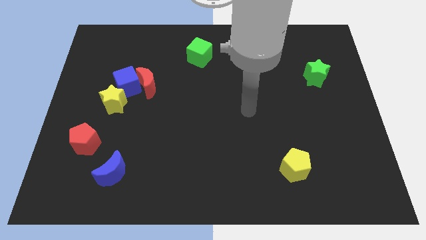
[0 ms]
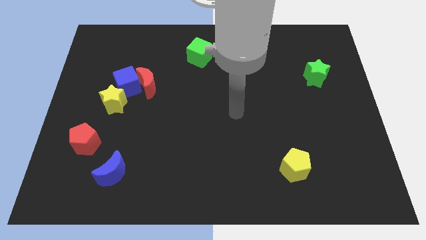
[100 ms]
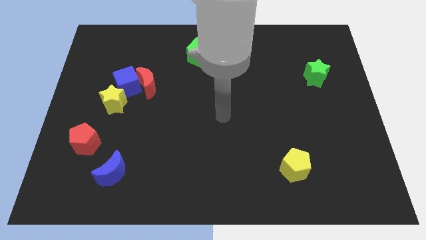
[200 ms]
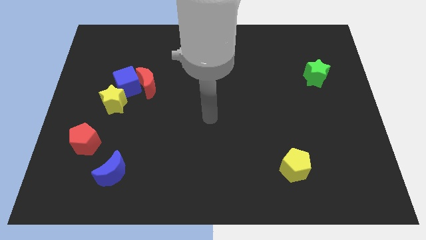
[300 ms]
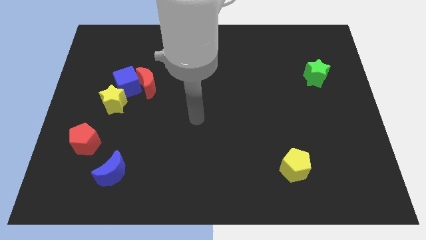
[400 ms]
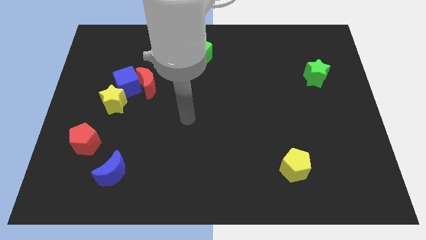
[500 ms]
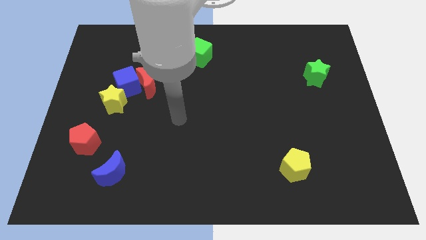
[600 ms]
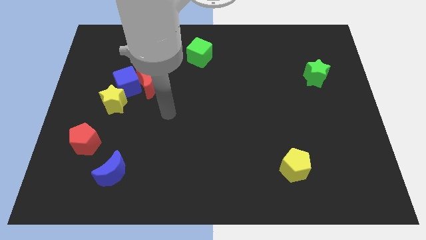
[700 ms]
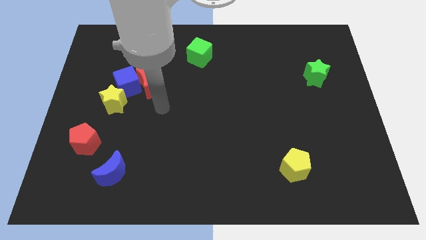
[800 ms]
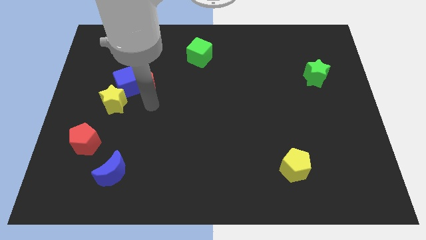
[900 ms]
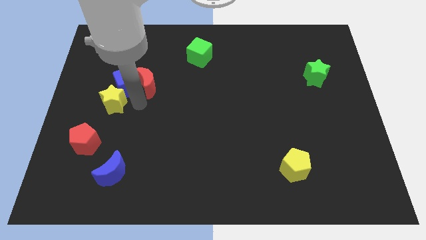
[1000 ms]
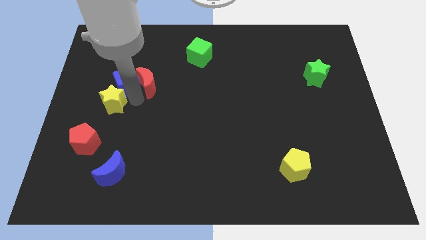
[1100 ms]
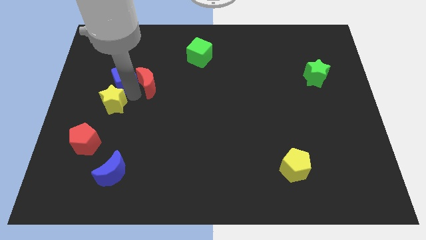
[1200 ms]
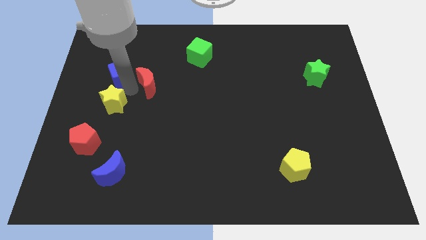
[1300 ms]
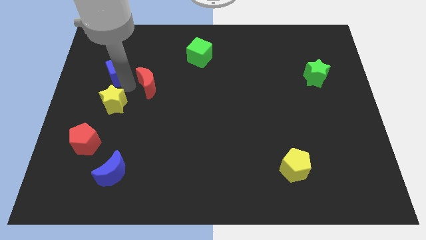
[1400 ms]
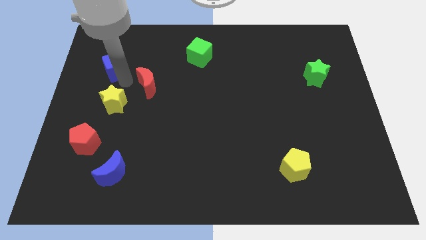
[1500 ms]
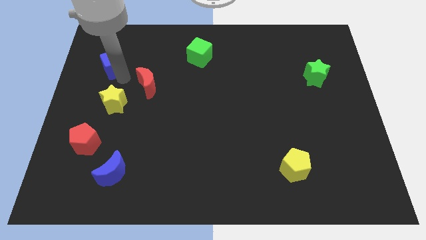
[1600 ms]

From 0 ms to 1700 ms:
move the blue cube away from the red moon and yellow star

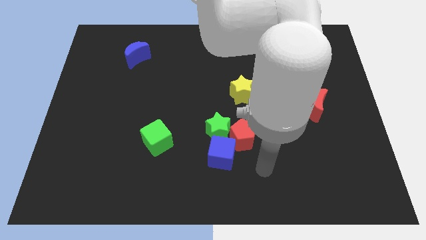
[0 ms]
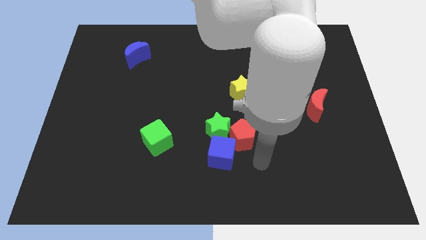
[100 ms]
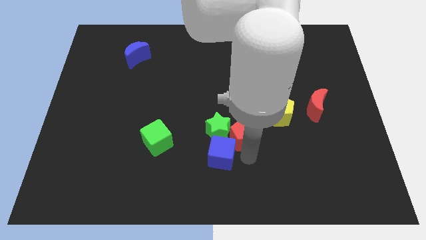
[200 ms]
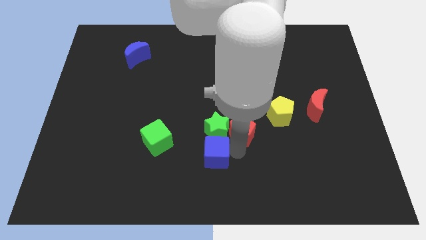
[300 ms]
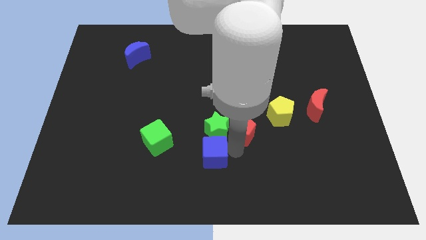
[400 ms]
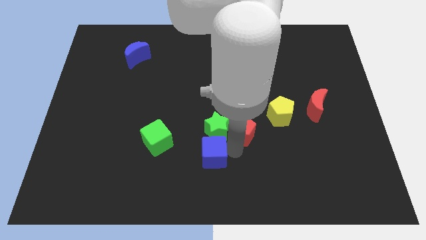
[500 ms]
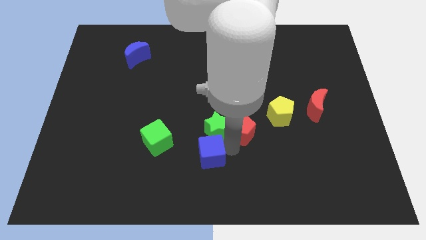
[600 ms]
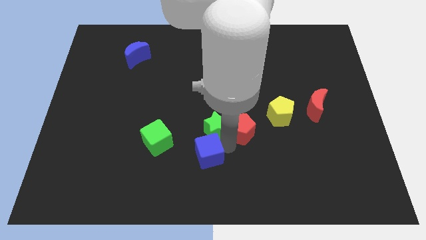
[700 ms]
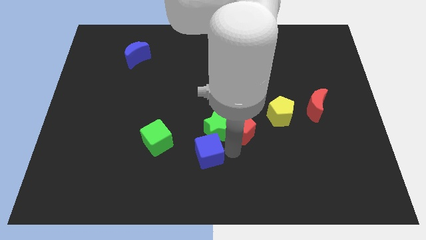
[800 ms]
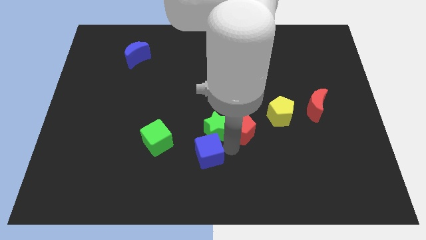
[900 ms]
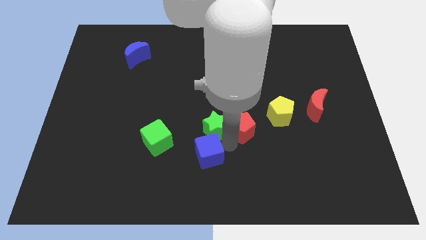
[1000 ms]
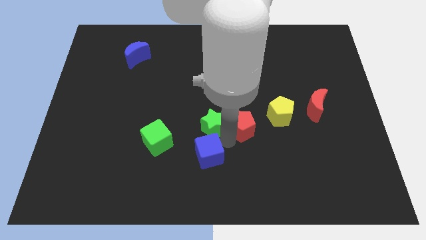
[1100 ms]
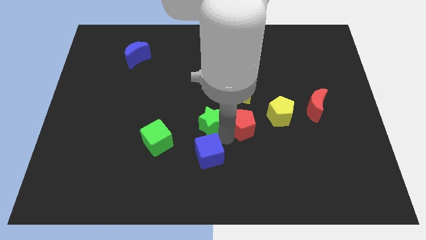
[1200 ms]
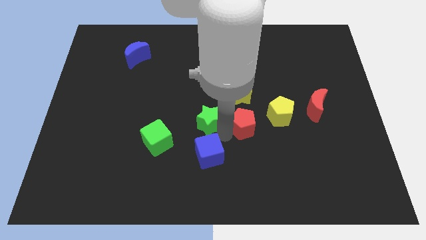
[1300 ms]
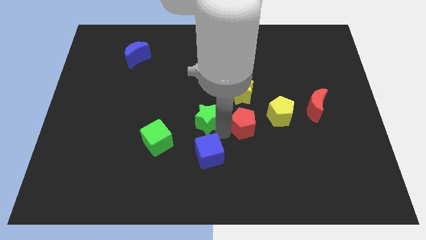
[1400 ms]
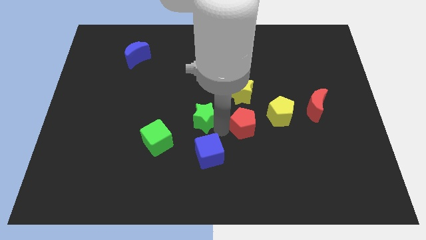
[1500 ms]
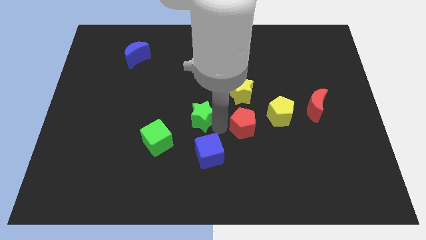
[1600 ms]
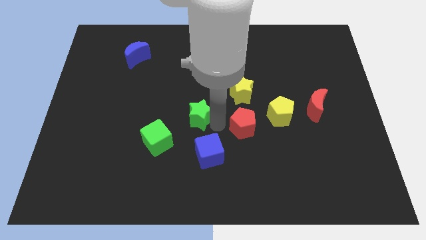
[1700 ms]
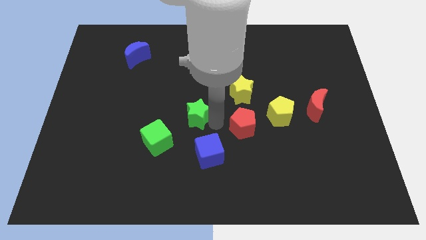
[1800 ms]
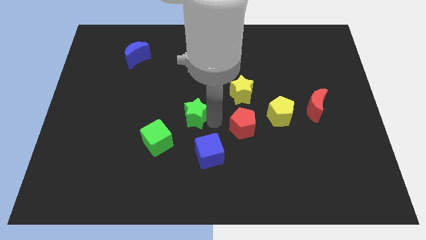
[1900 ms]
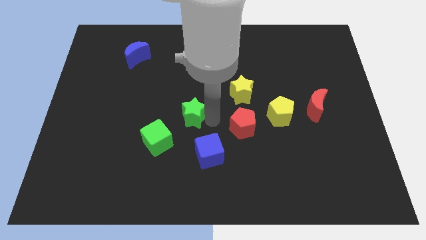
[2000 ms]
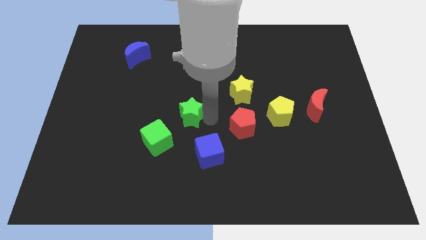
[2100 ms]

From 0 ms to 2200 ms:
separate the green star from the red pentagon and blue cube

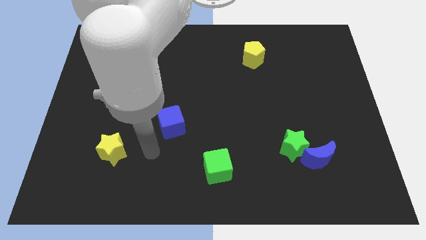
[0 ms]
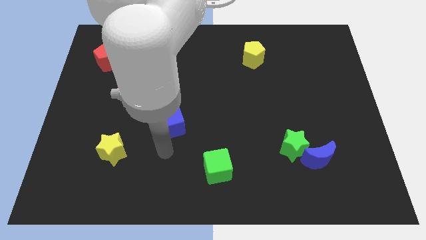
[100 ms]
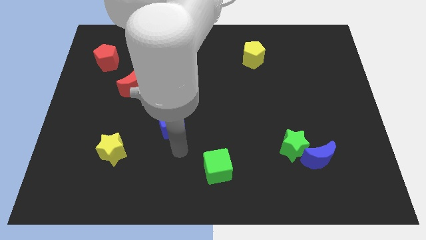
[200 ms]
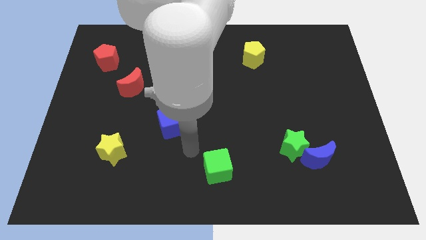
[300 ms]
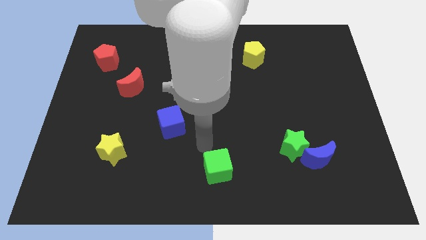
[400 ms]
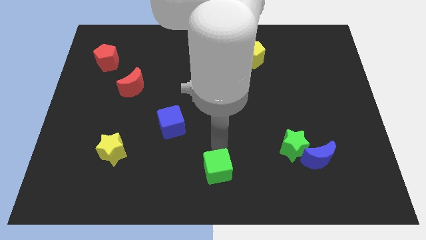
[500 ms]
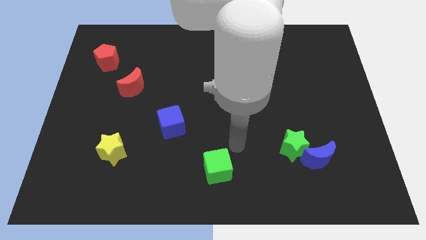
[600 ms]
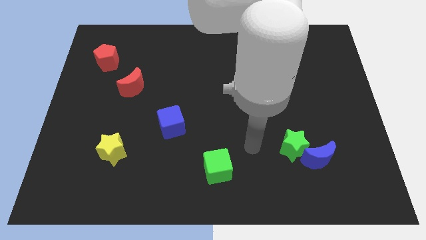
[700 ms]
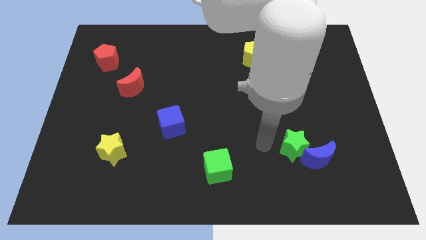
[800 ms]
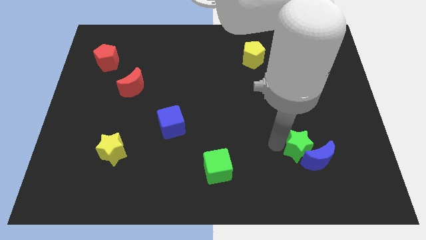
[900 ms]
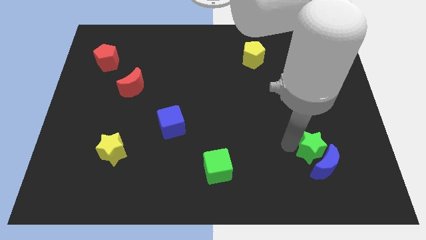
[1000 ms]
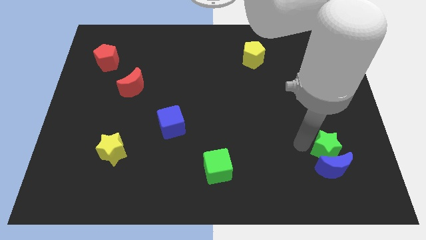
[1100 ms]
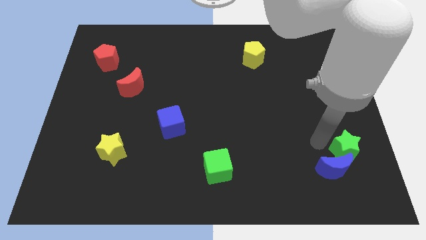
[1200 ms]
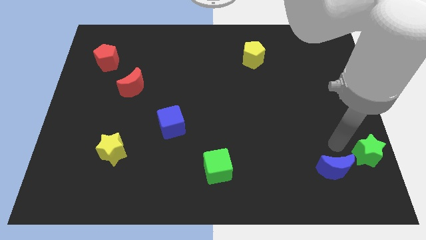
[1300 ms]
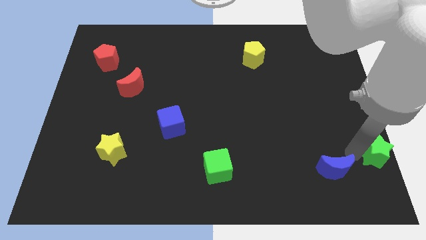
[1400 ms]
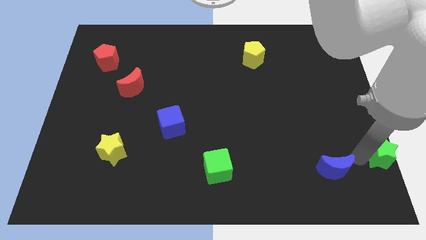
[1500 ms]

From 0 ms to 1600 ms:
move the blue moon away from the green star

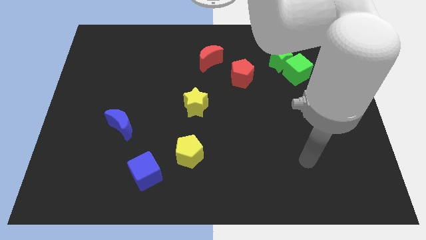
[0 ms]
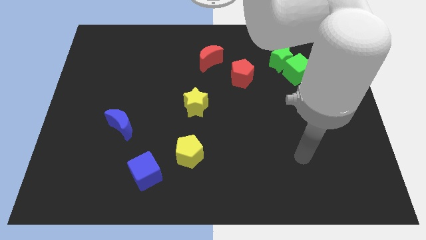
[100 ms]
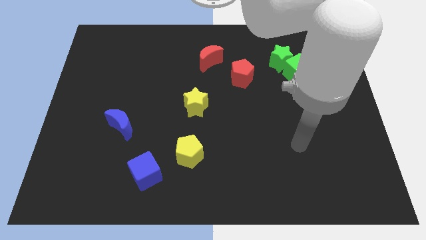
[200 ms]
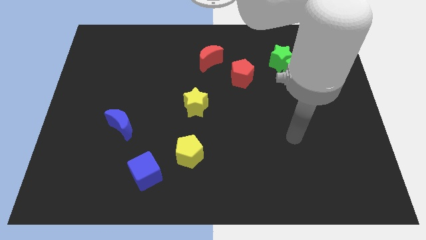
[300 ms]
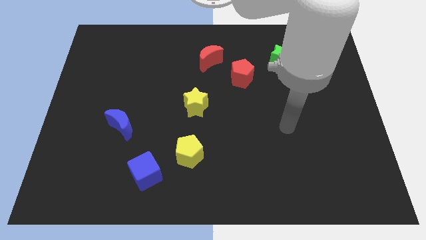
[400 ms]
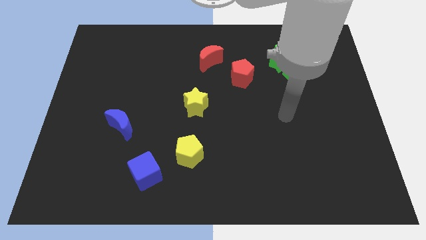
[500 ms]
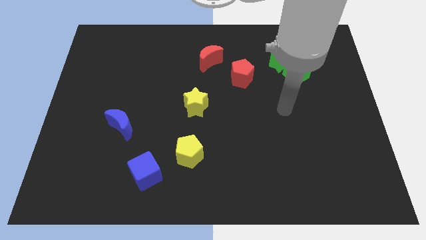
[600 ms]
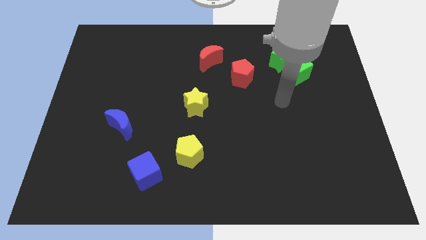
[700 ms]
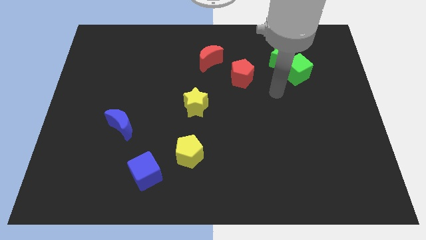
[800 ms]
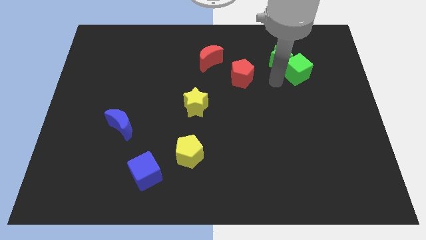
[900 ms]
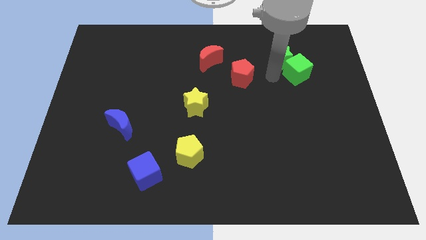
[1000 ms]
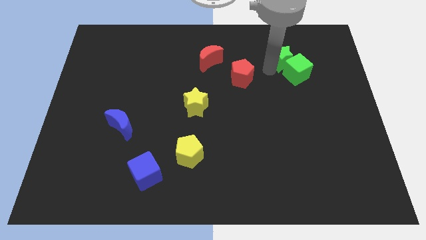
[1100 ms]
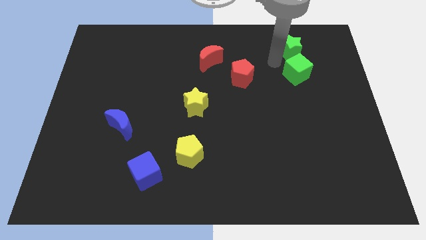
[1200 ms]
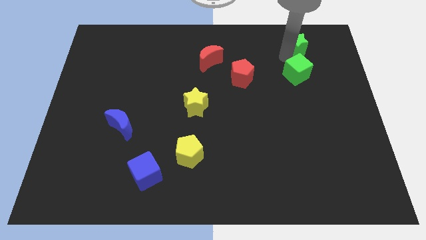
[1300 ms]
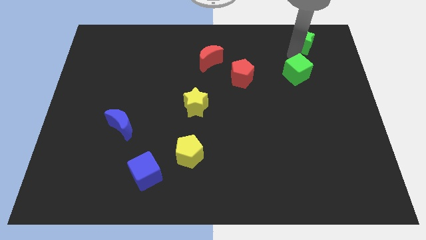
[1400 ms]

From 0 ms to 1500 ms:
pull the green cube apart from the green star

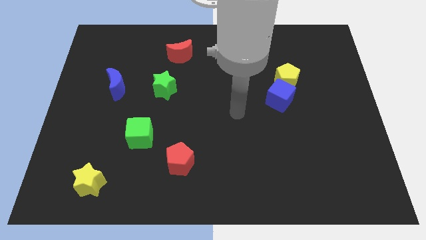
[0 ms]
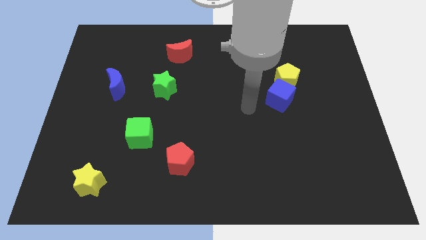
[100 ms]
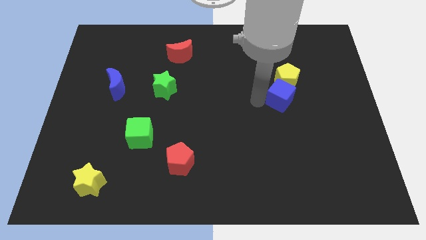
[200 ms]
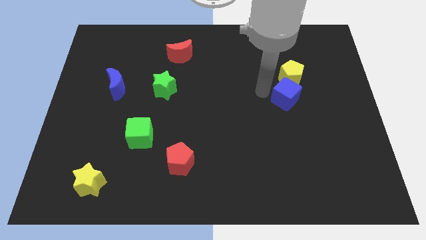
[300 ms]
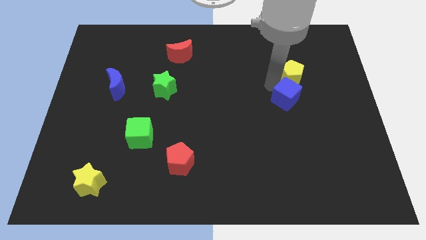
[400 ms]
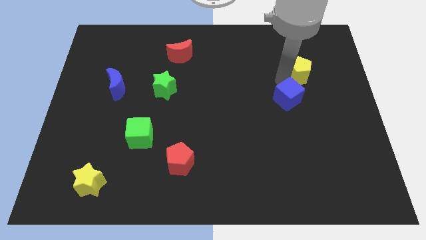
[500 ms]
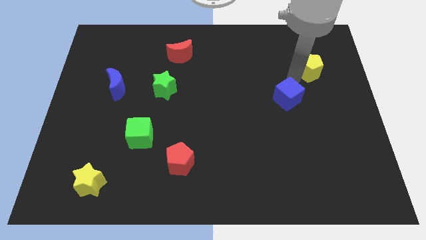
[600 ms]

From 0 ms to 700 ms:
pull the blue cube apart from the yellow pentagon

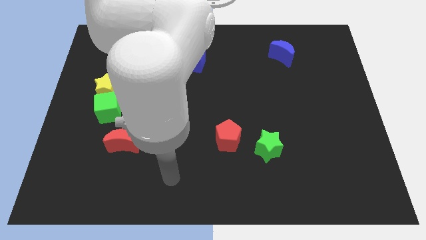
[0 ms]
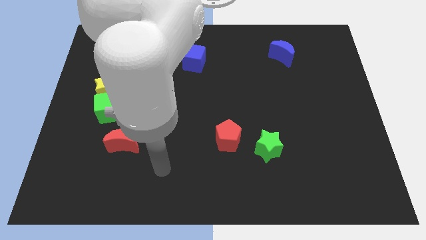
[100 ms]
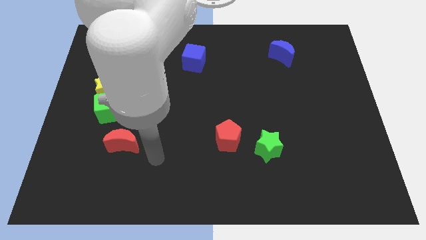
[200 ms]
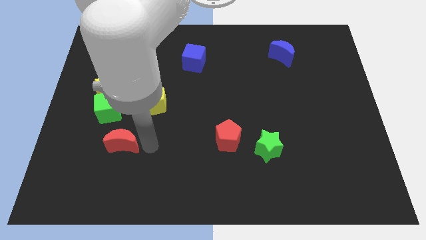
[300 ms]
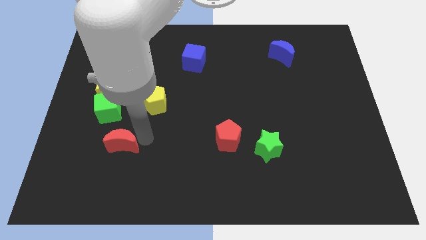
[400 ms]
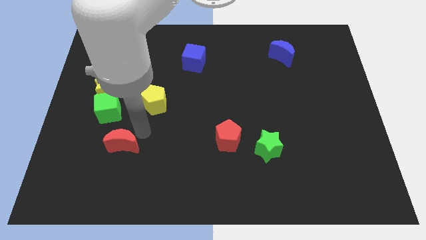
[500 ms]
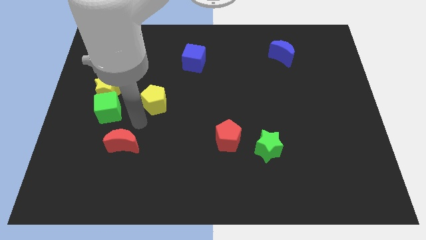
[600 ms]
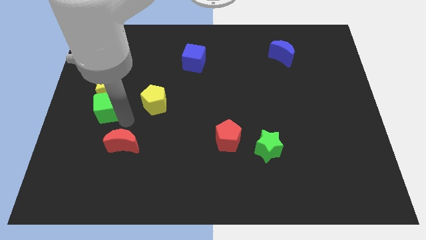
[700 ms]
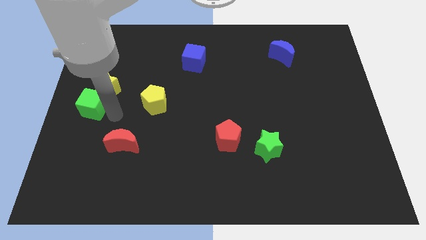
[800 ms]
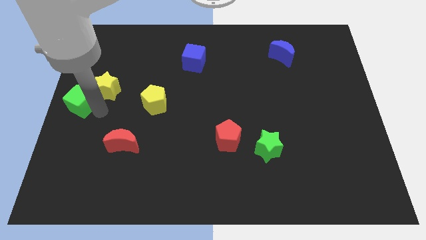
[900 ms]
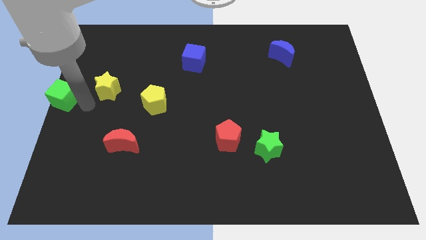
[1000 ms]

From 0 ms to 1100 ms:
separate the yellow star from the green cube

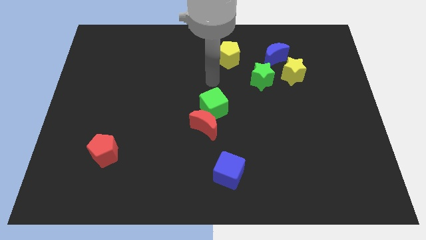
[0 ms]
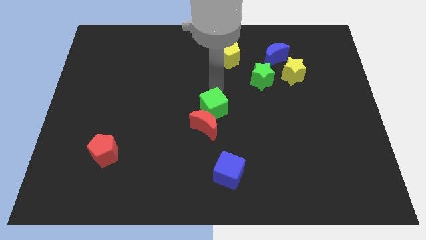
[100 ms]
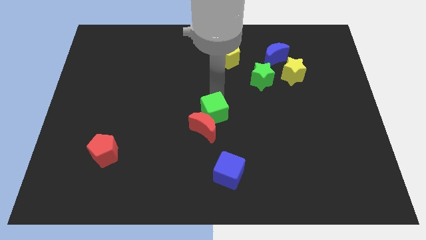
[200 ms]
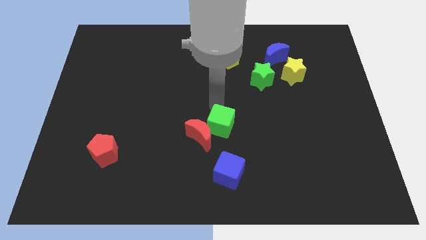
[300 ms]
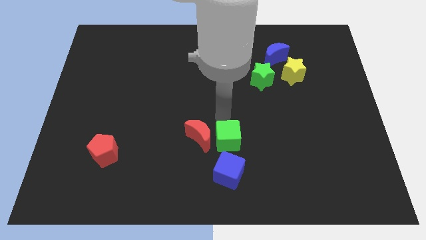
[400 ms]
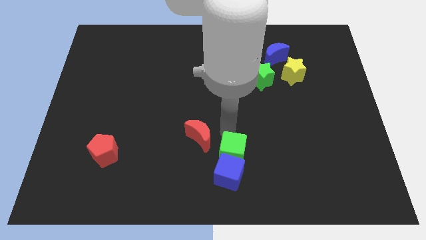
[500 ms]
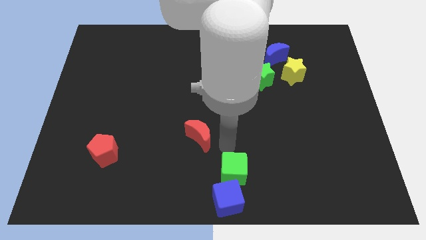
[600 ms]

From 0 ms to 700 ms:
separate the red moon from the green cube
